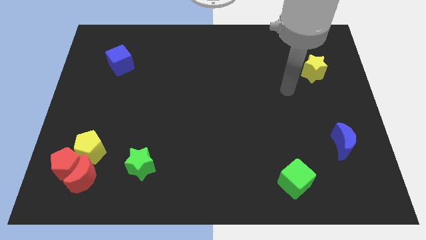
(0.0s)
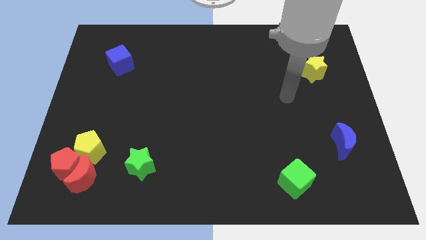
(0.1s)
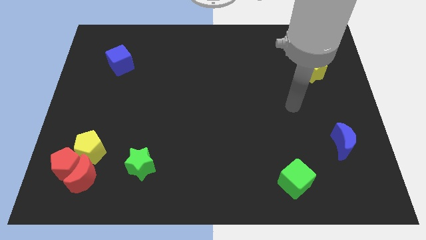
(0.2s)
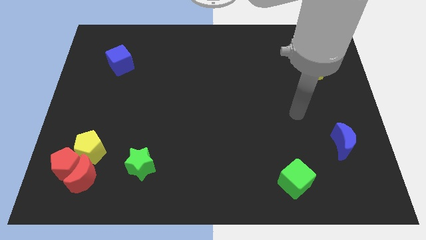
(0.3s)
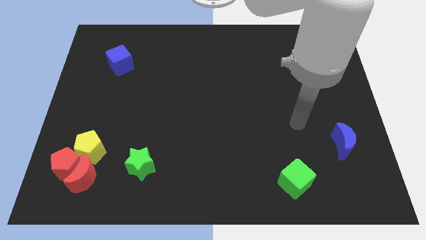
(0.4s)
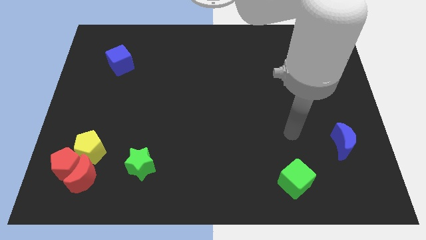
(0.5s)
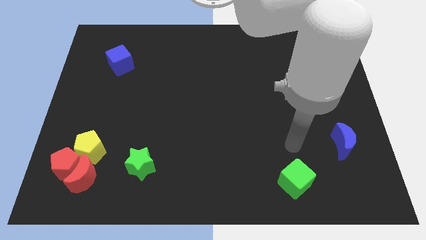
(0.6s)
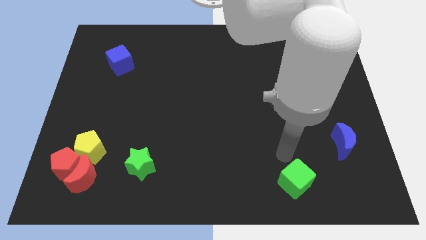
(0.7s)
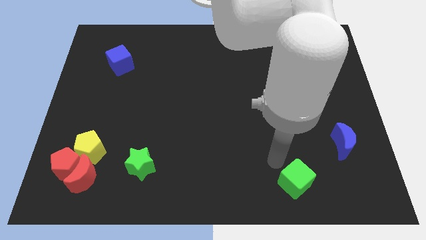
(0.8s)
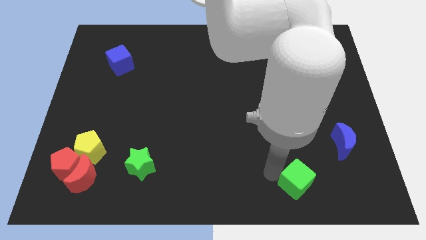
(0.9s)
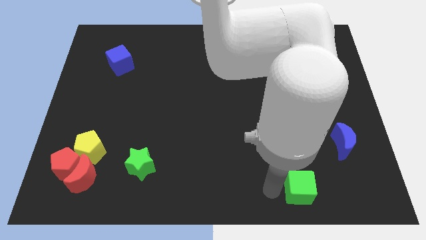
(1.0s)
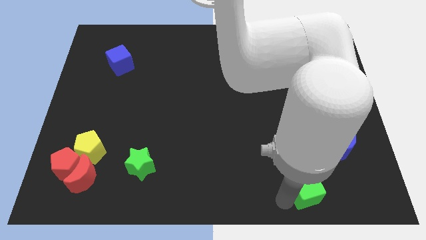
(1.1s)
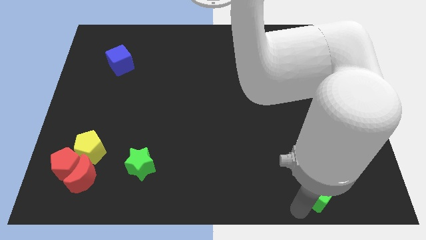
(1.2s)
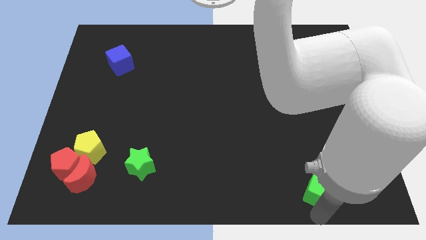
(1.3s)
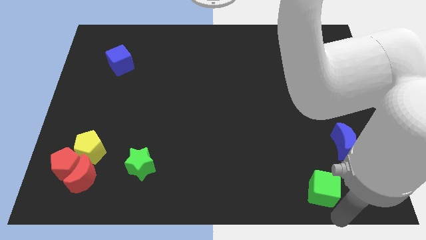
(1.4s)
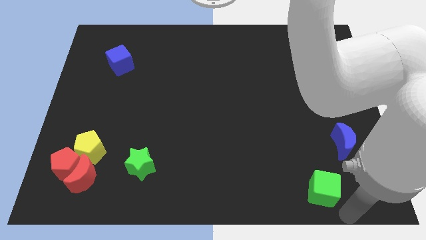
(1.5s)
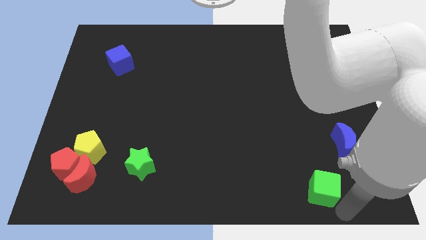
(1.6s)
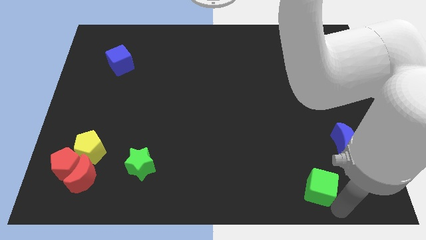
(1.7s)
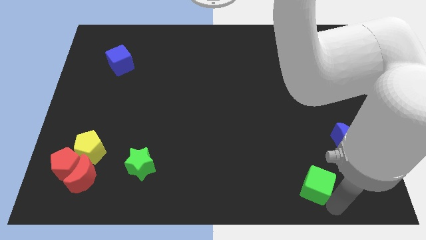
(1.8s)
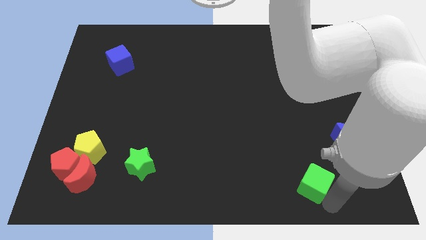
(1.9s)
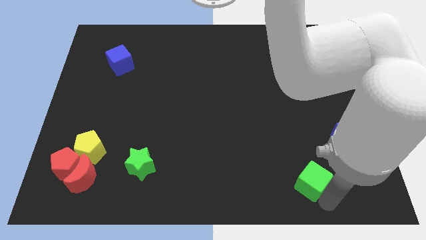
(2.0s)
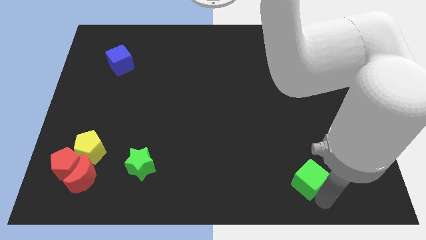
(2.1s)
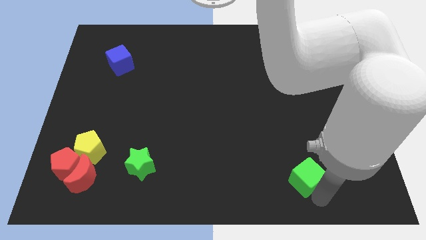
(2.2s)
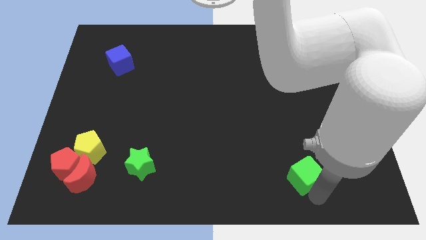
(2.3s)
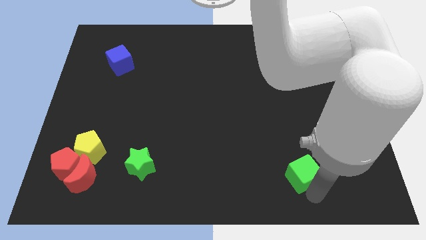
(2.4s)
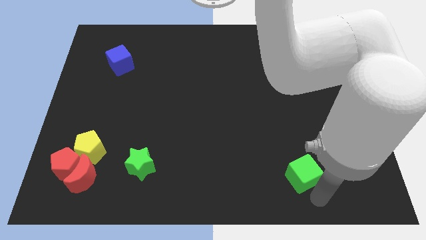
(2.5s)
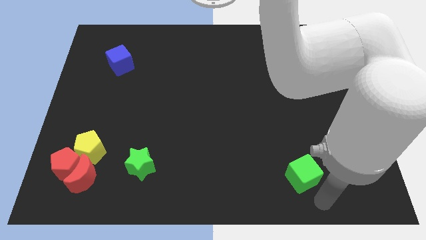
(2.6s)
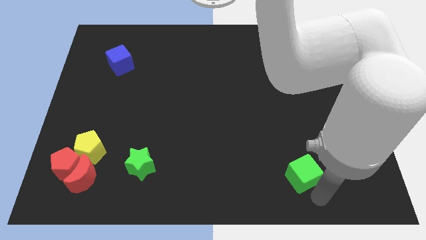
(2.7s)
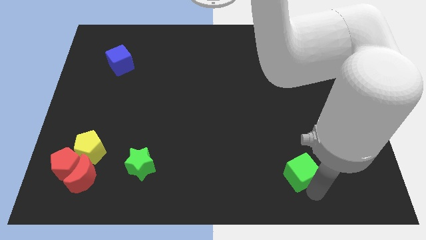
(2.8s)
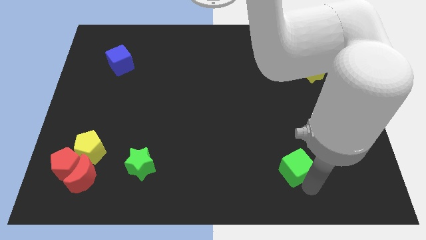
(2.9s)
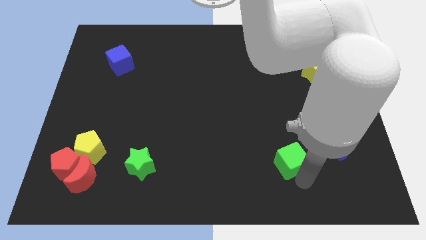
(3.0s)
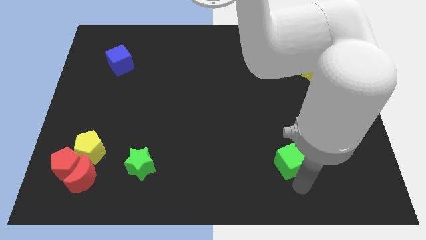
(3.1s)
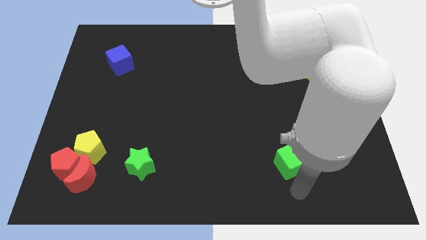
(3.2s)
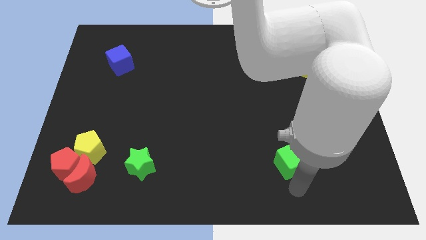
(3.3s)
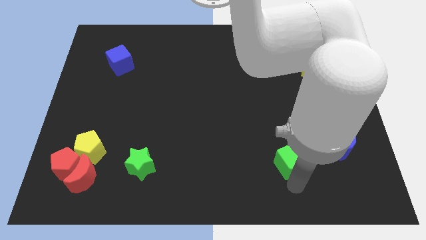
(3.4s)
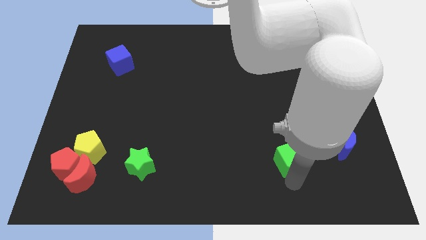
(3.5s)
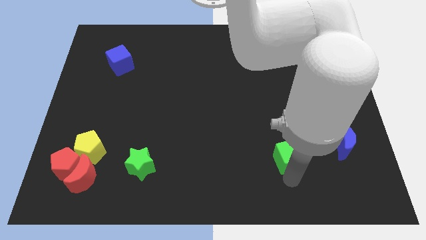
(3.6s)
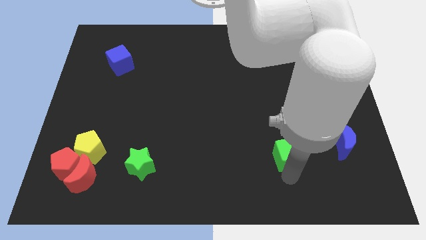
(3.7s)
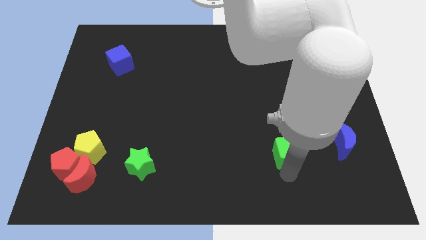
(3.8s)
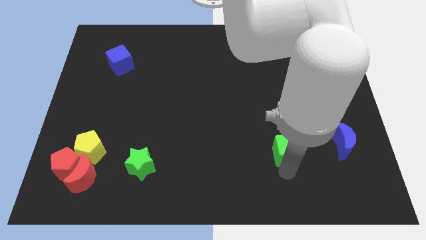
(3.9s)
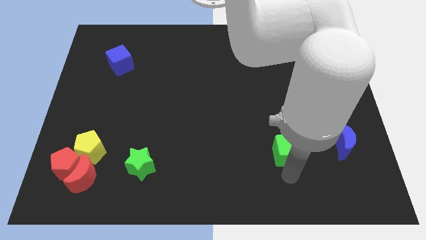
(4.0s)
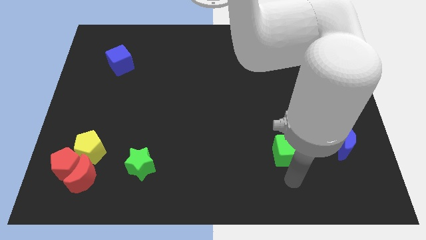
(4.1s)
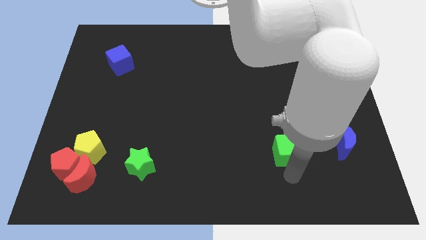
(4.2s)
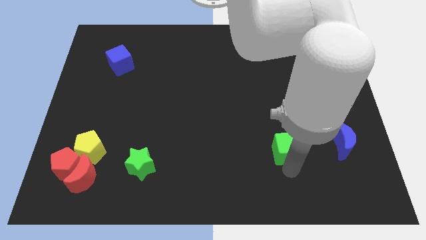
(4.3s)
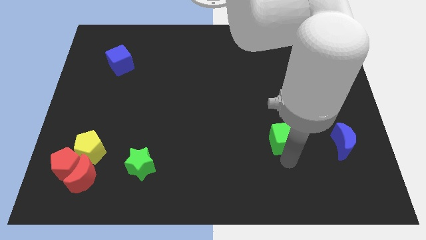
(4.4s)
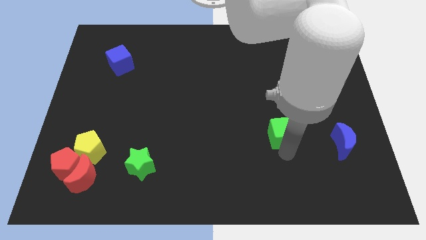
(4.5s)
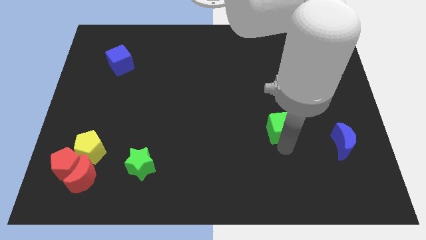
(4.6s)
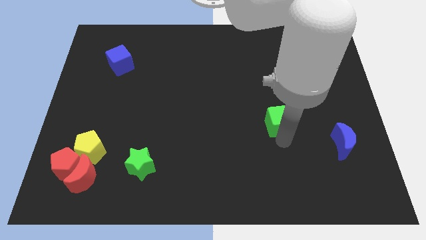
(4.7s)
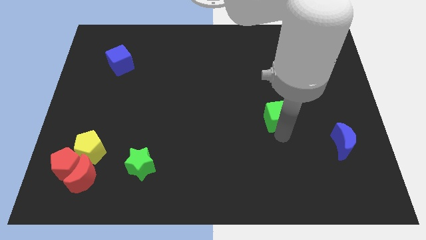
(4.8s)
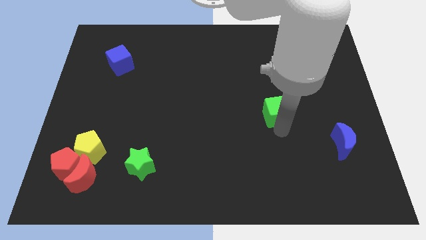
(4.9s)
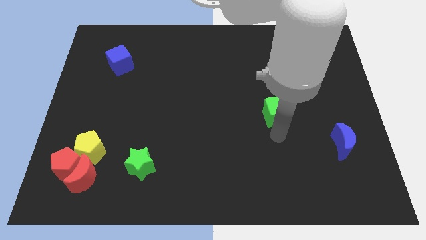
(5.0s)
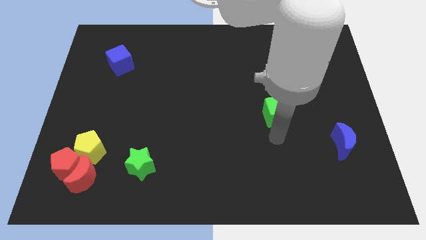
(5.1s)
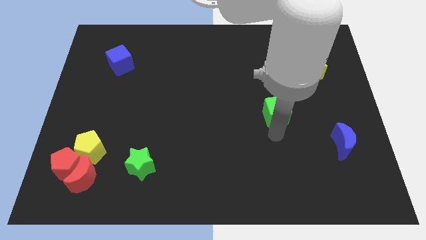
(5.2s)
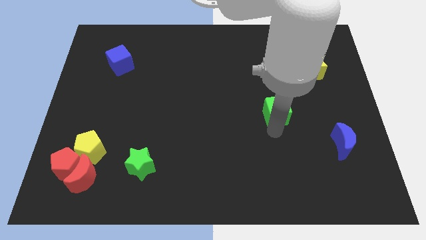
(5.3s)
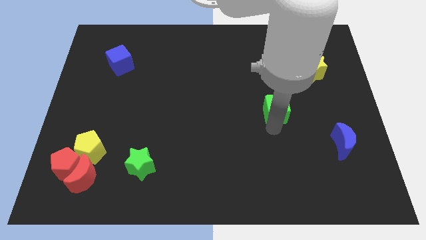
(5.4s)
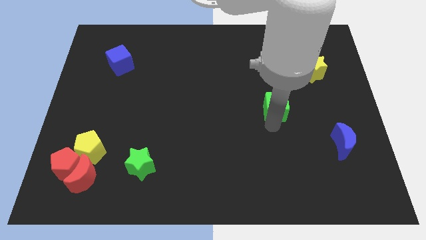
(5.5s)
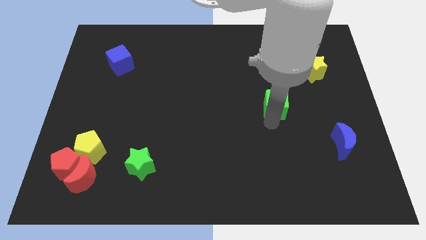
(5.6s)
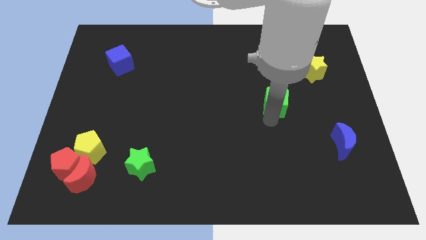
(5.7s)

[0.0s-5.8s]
slide the green cube upwards

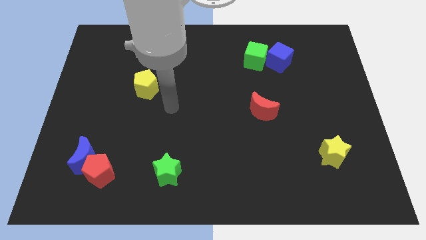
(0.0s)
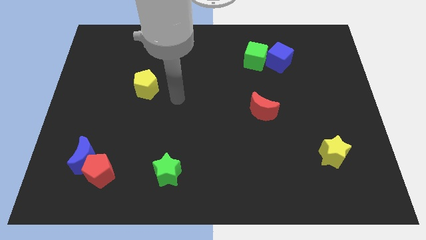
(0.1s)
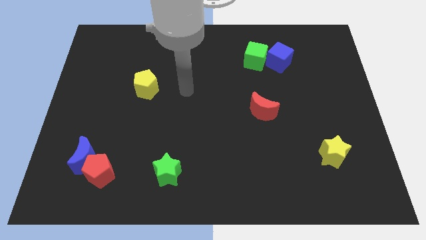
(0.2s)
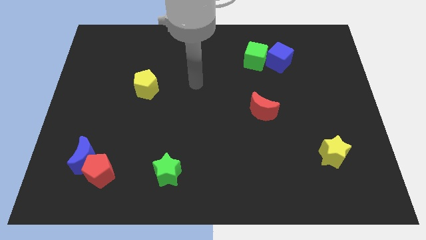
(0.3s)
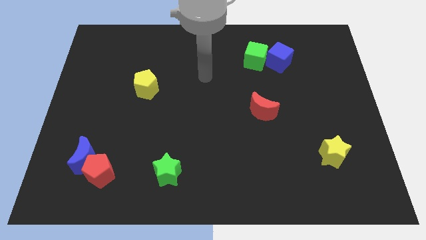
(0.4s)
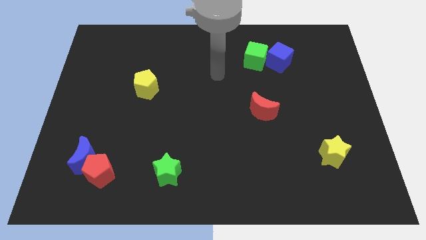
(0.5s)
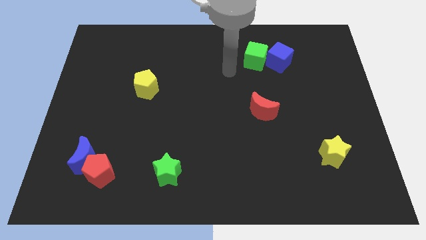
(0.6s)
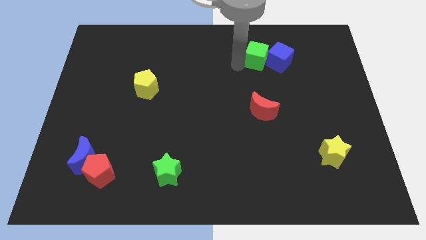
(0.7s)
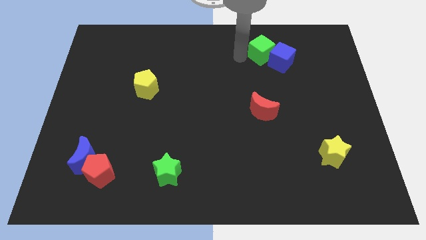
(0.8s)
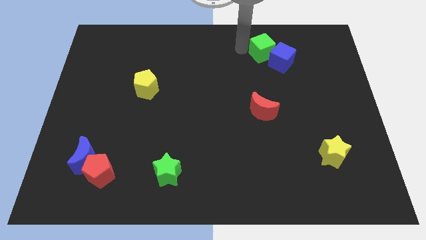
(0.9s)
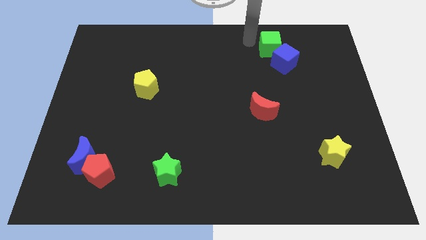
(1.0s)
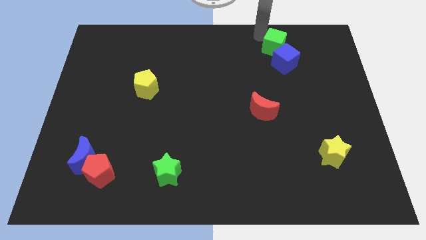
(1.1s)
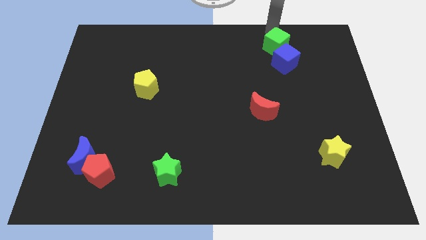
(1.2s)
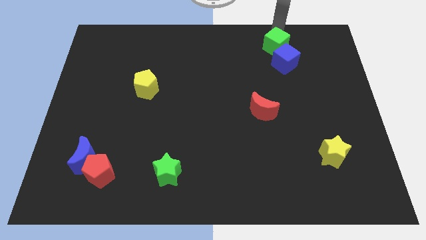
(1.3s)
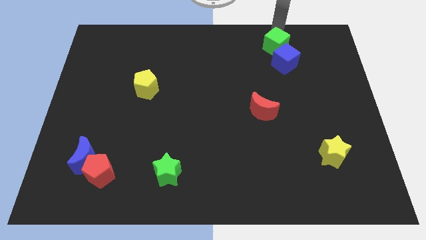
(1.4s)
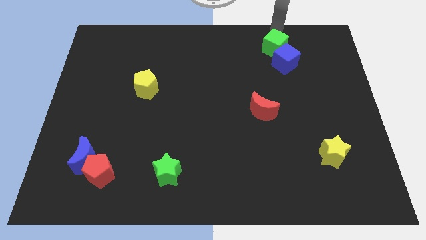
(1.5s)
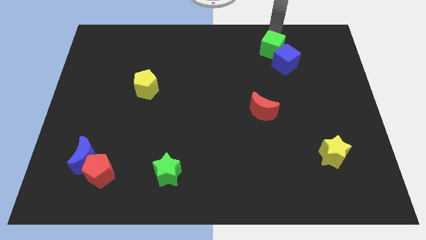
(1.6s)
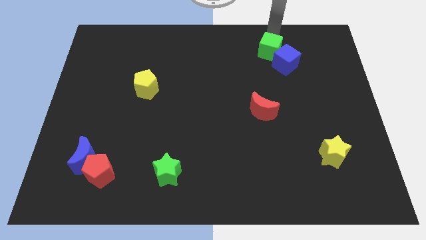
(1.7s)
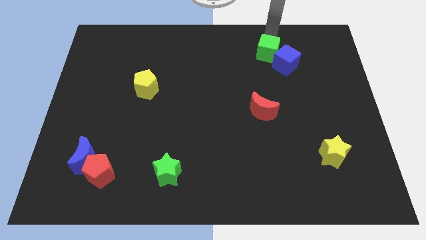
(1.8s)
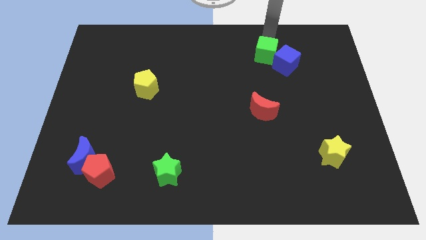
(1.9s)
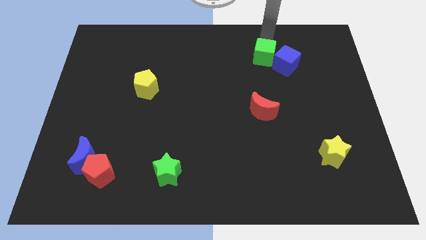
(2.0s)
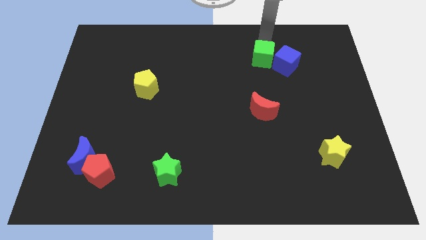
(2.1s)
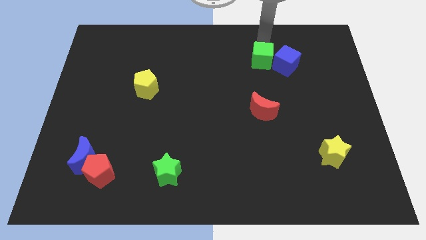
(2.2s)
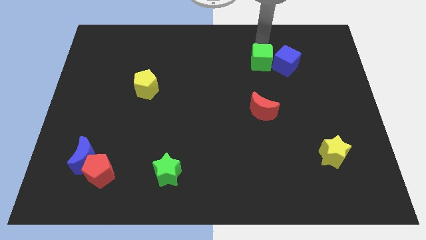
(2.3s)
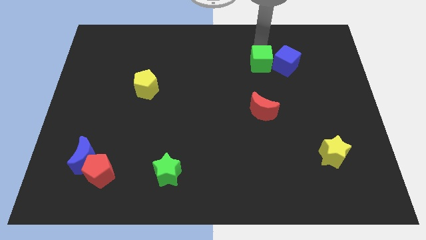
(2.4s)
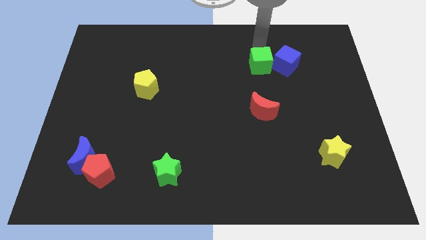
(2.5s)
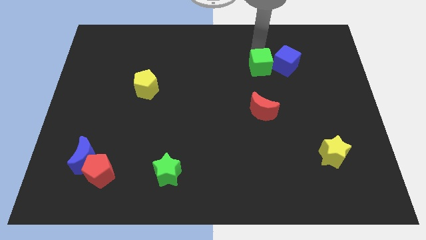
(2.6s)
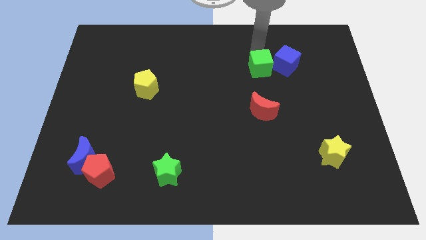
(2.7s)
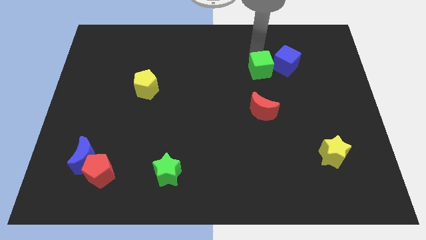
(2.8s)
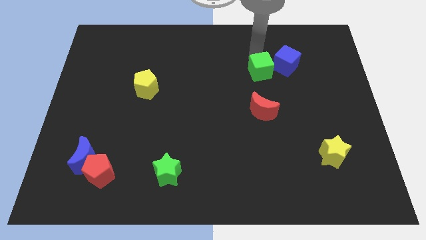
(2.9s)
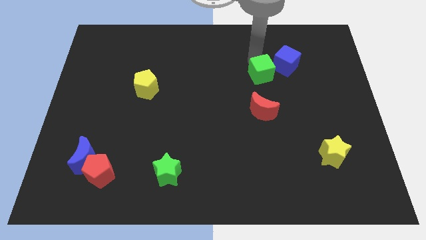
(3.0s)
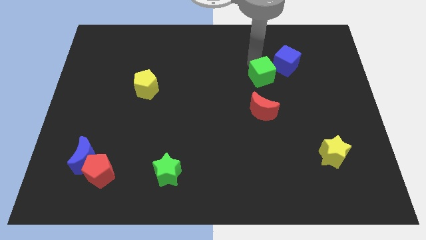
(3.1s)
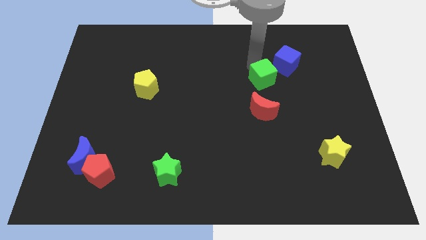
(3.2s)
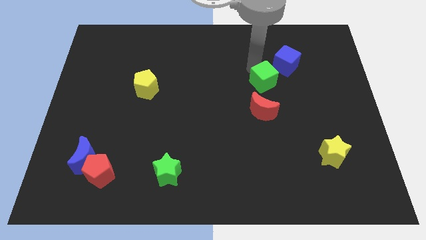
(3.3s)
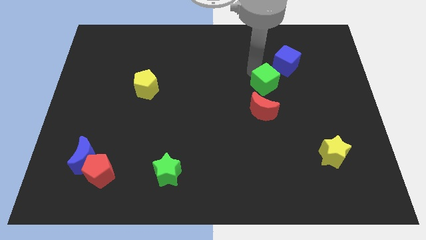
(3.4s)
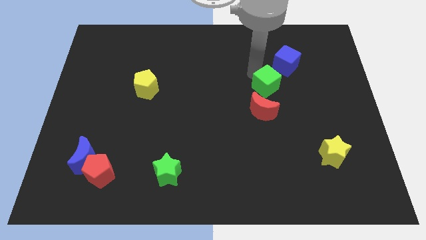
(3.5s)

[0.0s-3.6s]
slightly slide the green cube downwards and right
